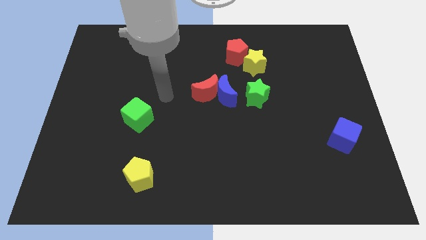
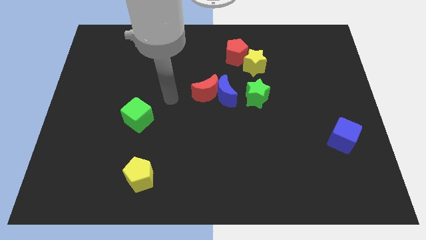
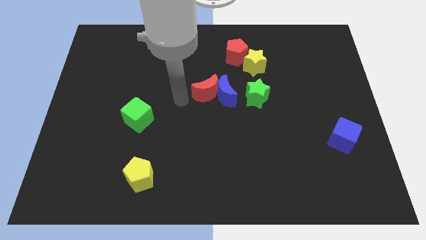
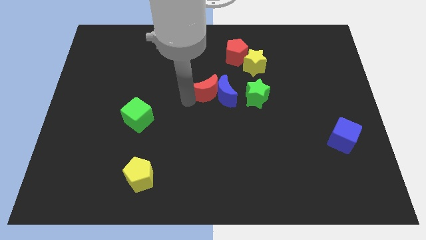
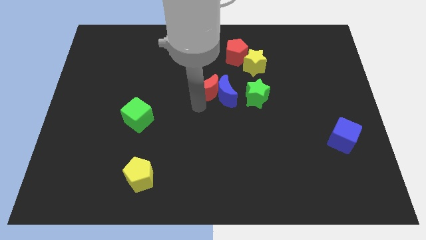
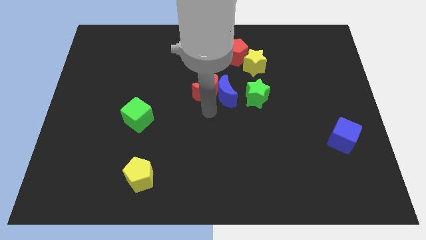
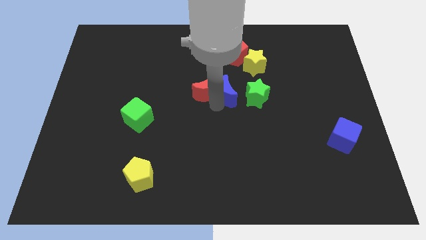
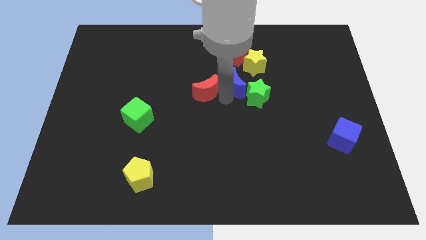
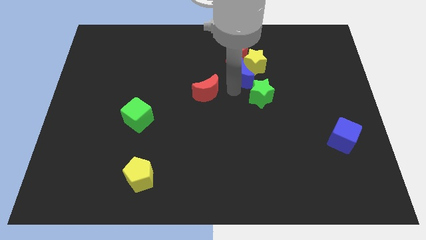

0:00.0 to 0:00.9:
separate the red moon from the blue moon

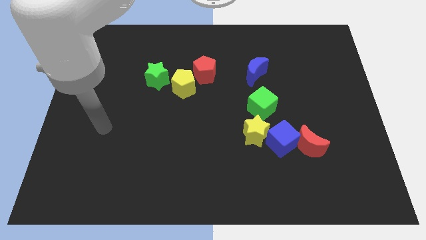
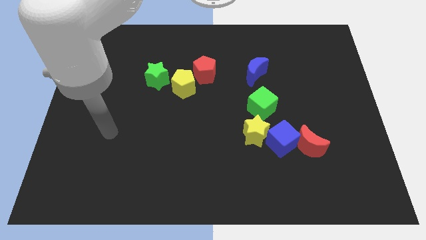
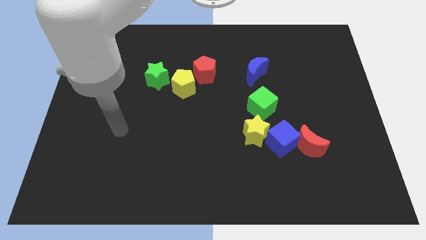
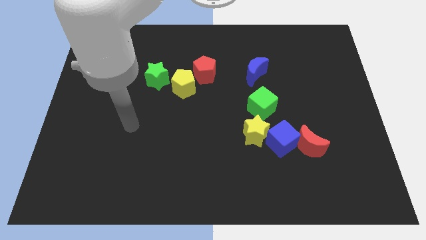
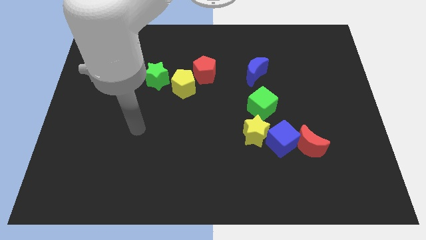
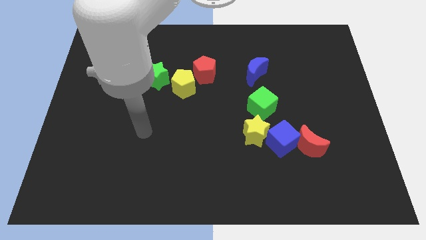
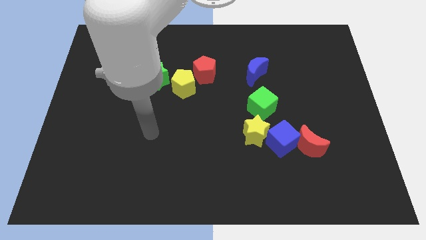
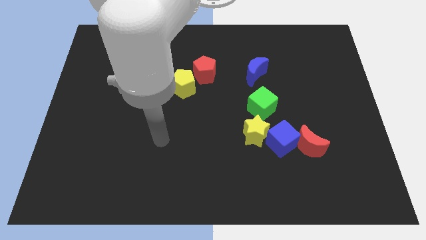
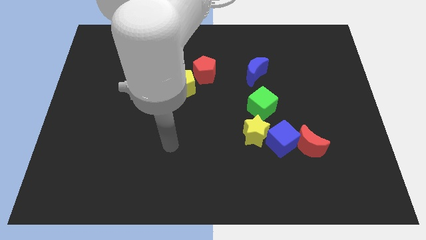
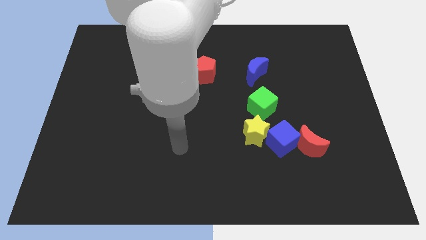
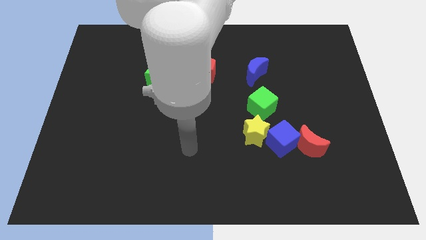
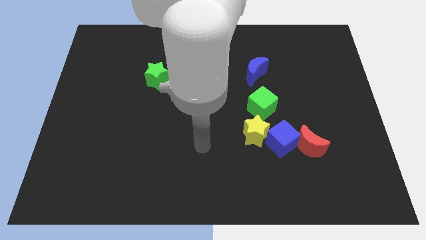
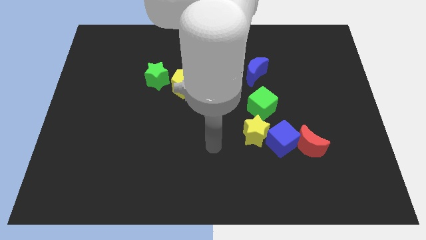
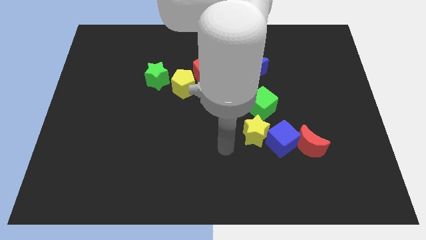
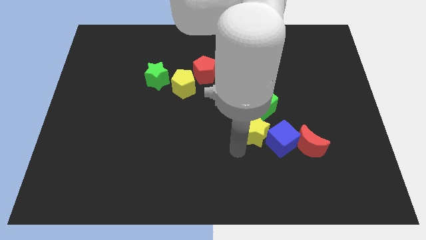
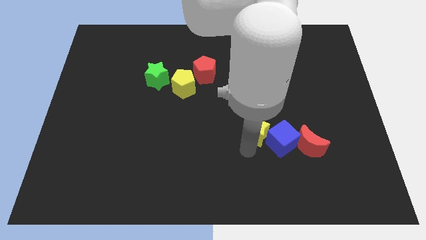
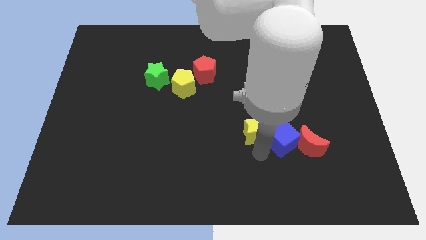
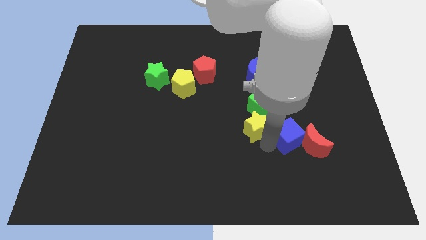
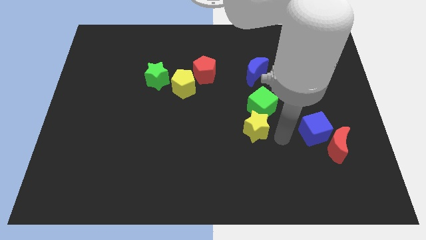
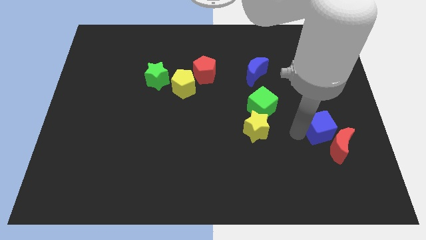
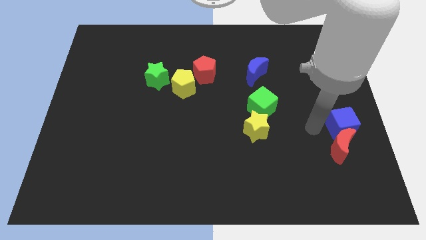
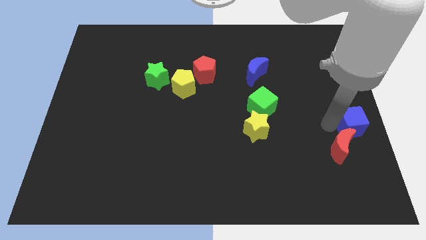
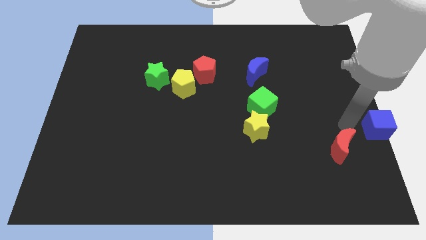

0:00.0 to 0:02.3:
separate the red moon from the blue cube

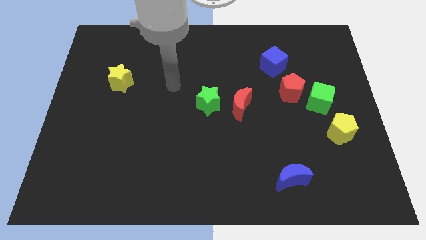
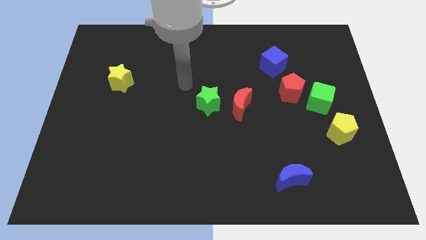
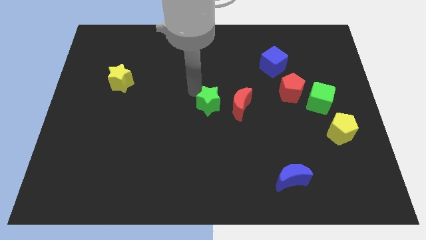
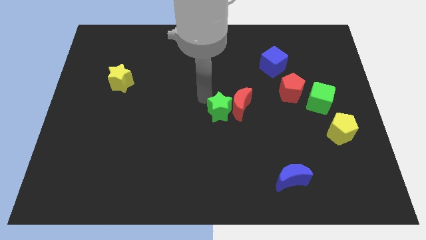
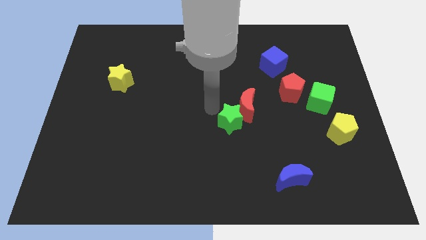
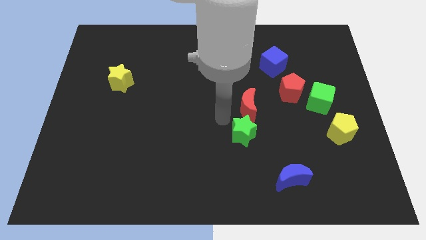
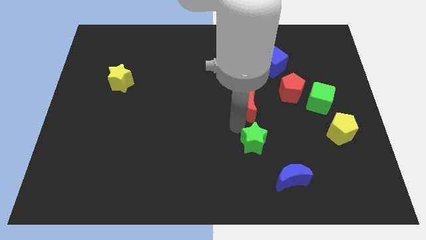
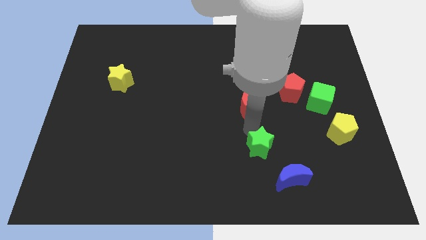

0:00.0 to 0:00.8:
pull the red moon apart from the green star

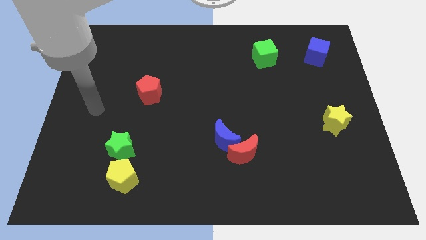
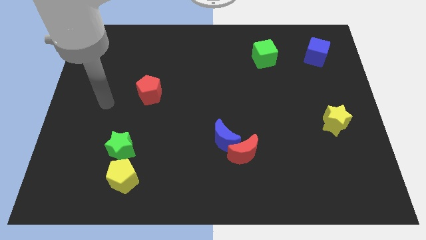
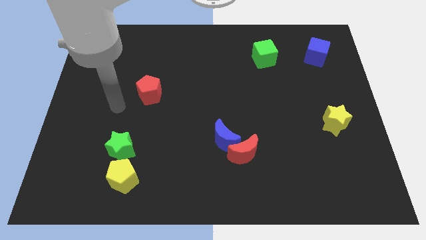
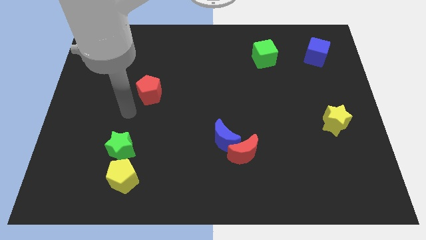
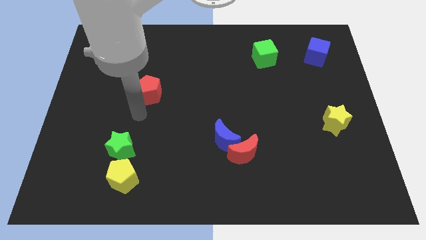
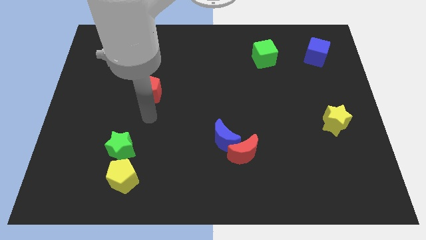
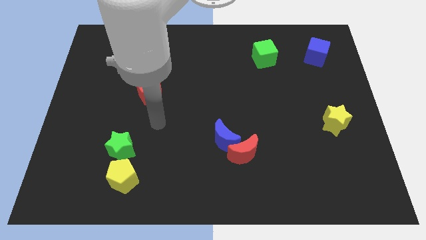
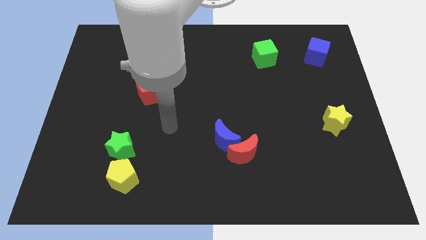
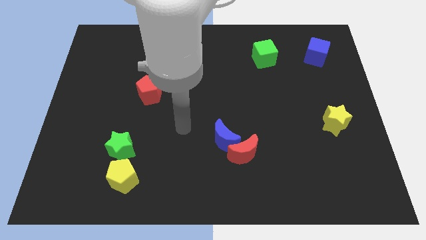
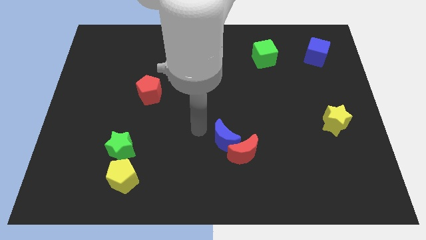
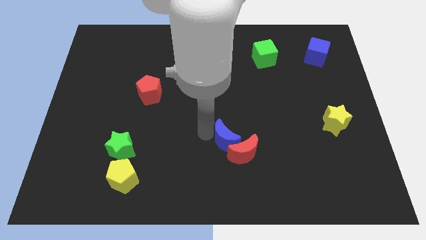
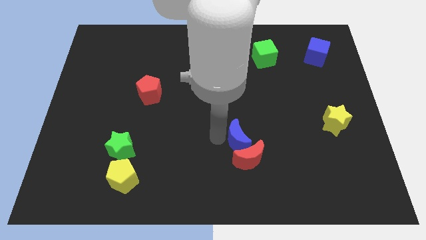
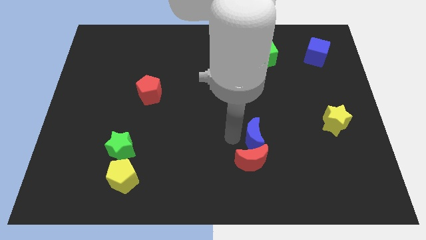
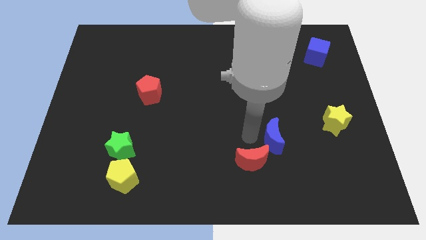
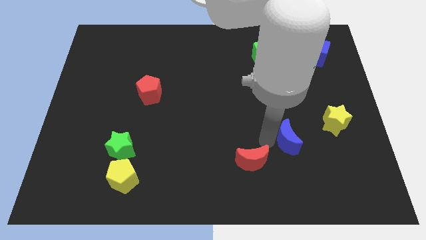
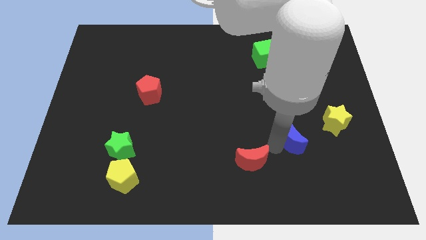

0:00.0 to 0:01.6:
move the red moon away from the blue moon

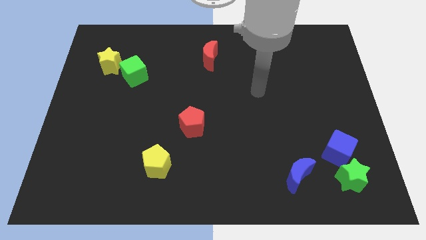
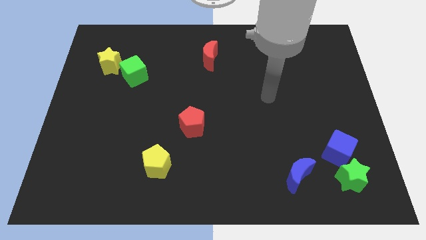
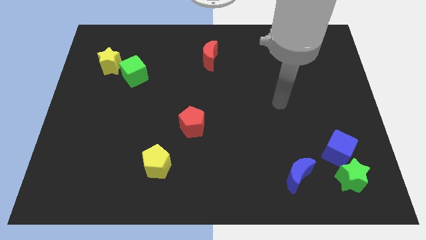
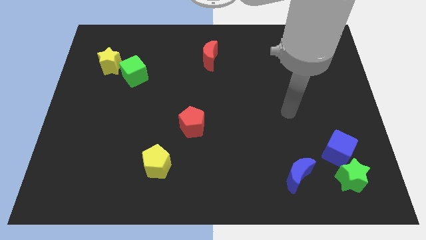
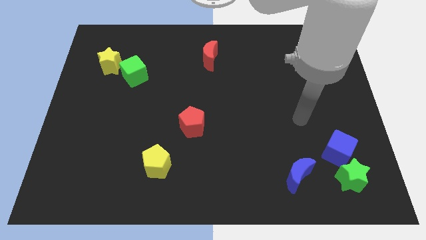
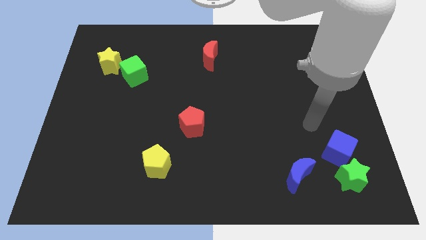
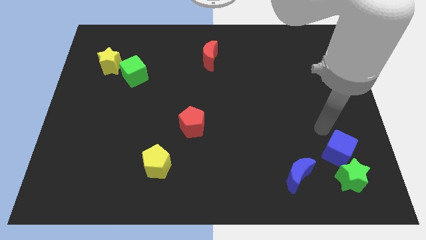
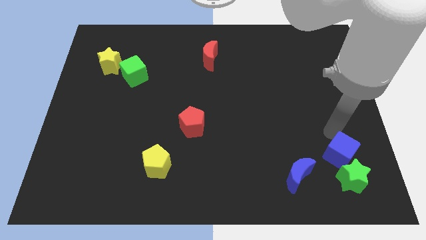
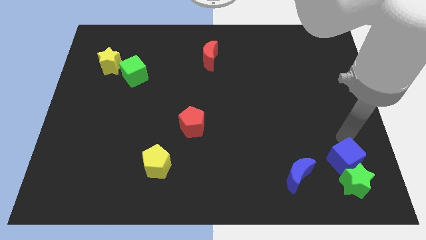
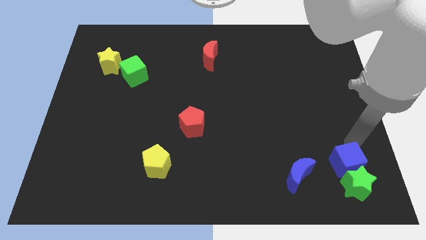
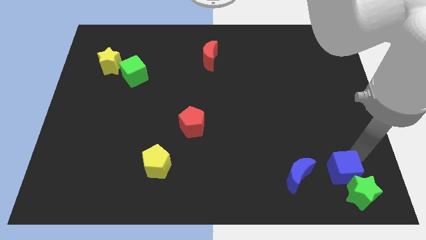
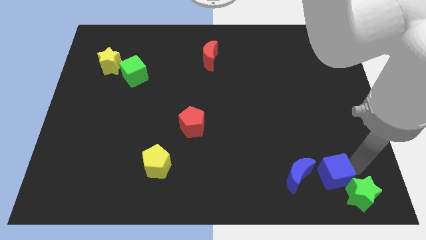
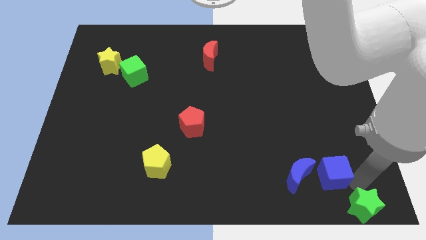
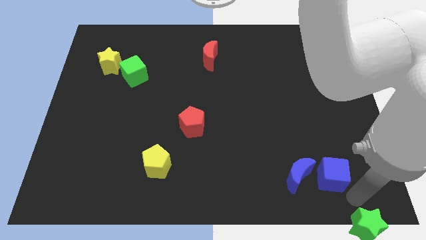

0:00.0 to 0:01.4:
separate the blue cube from the green star

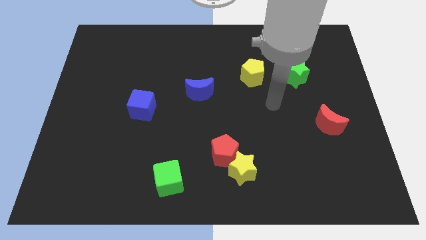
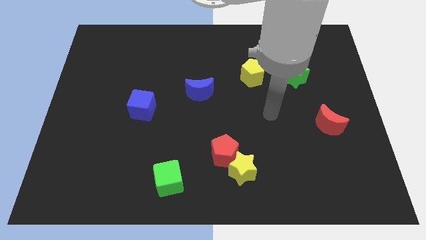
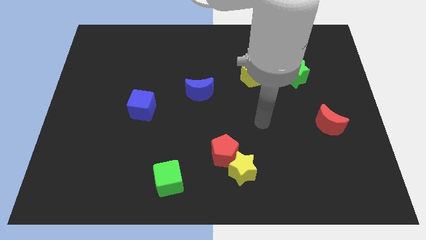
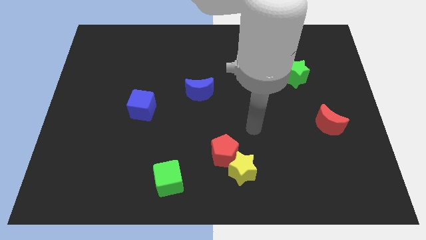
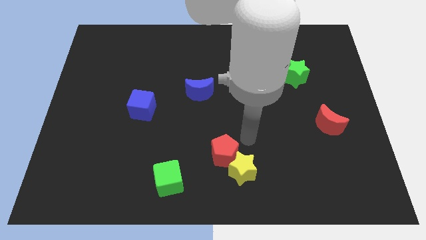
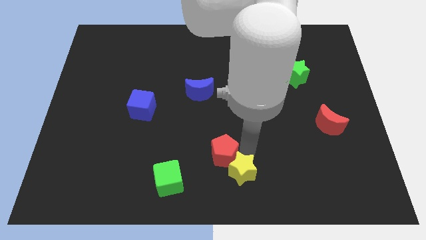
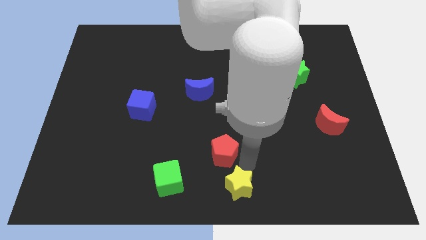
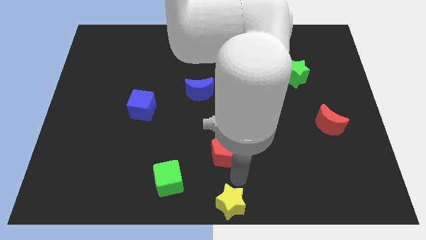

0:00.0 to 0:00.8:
separate the red pentagon from the yellow star

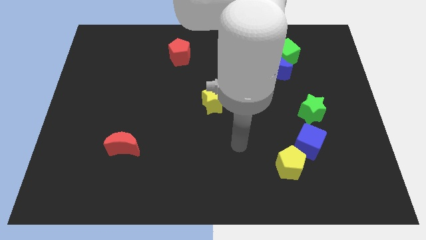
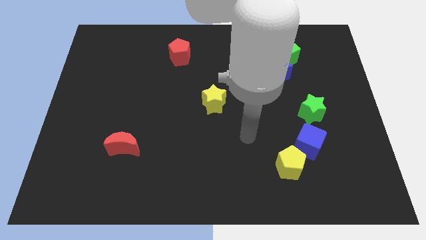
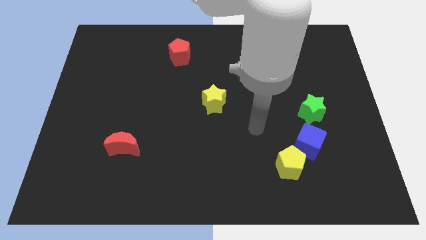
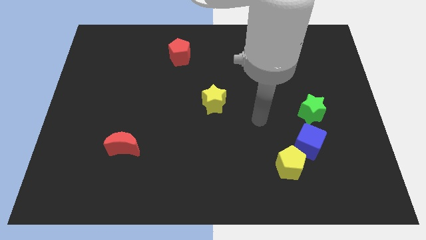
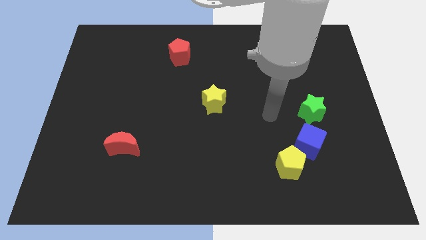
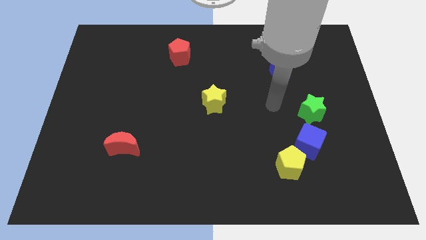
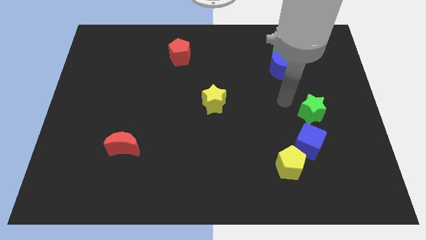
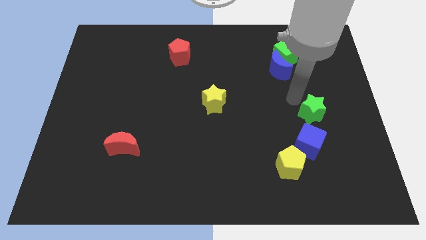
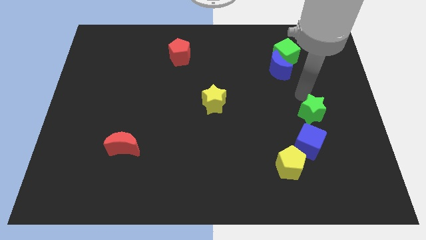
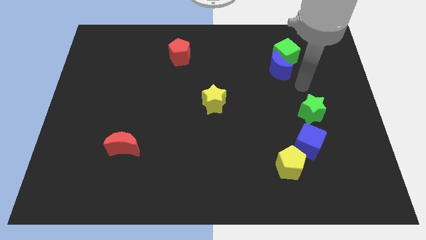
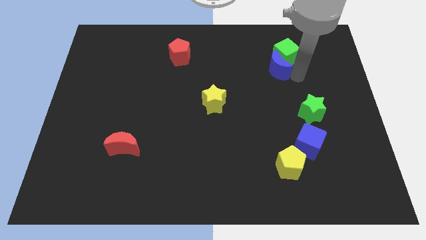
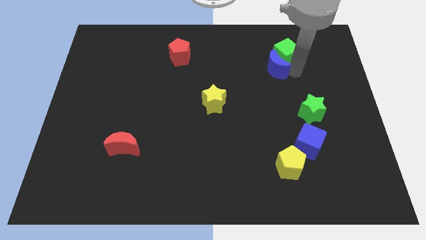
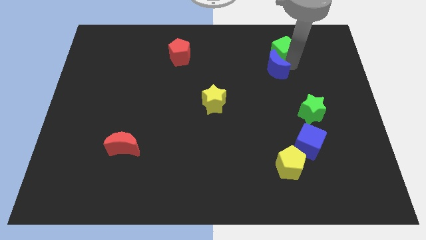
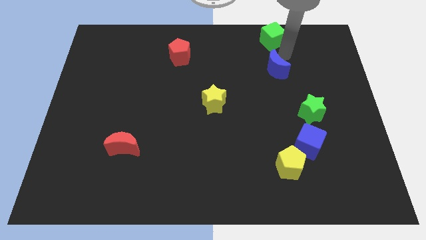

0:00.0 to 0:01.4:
move the blue moon away from the green cube

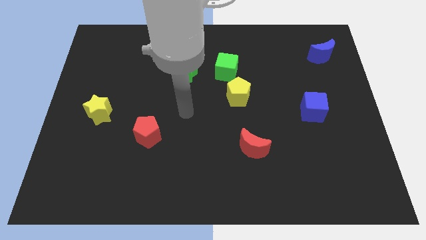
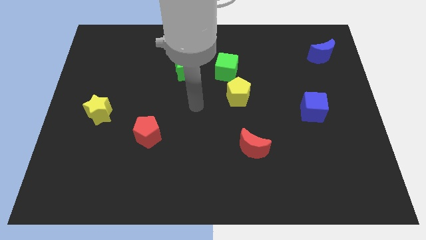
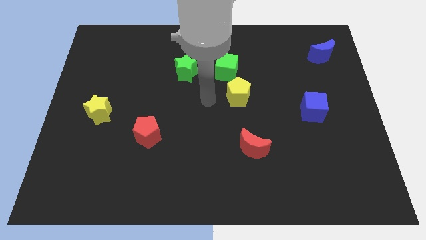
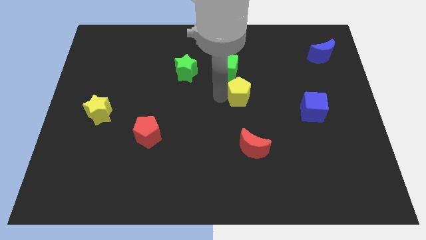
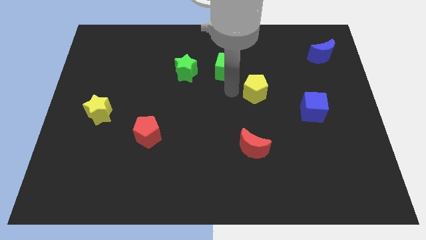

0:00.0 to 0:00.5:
pull the green cube apart from the yellow pentagon
